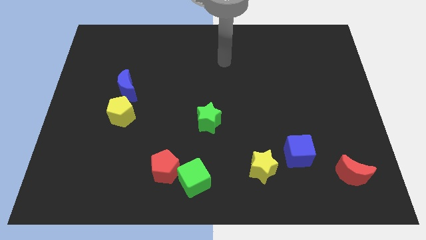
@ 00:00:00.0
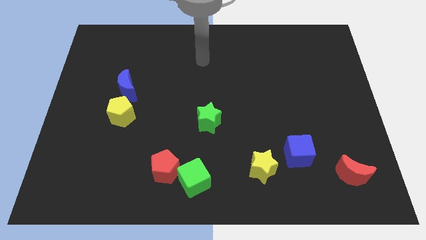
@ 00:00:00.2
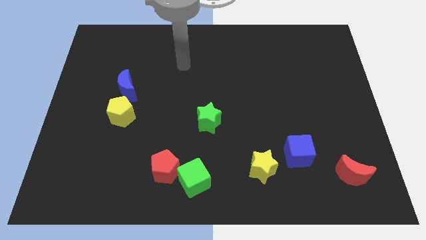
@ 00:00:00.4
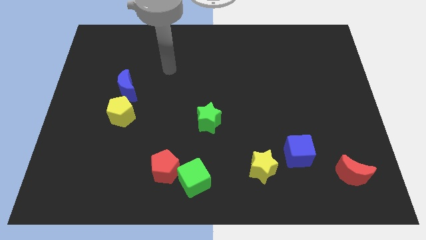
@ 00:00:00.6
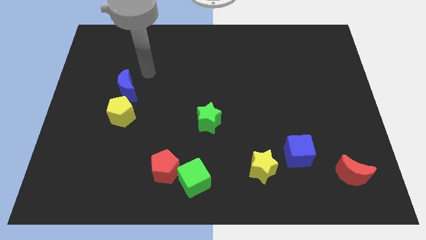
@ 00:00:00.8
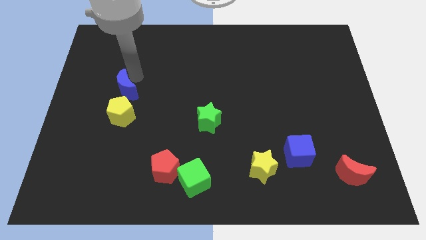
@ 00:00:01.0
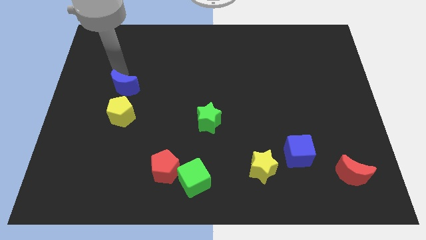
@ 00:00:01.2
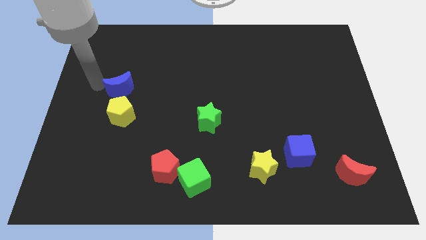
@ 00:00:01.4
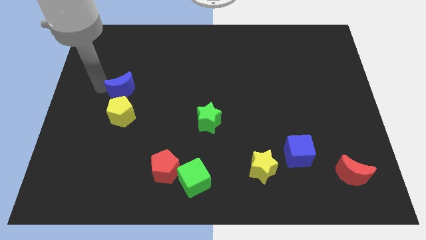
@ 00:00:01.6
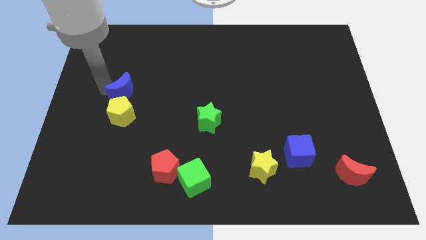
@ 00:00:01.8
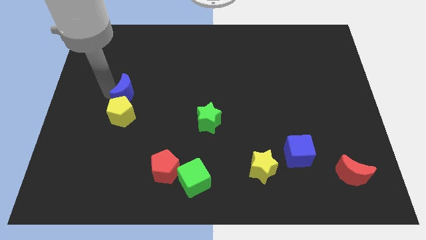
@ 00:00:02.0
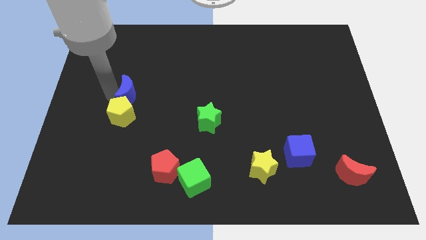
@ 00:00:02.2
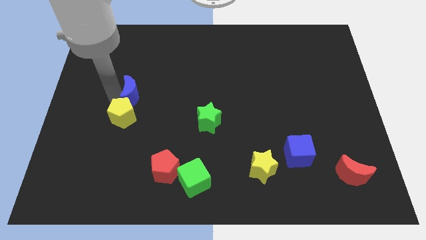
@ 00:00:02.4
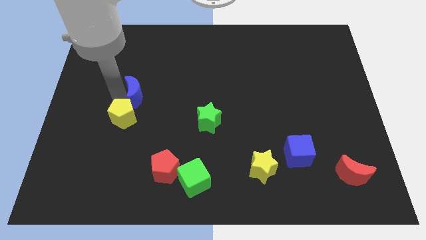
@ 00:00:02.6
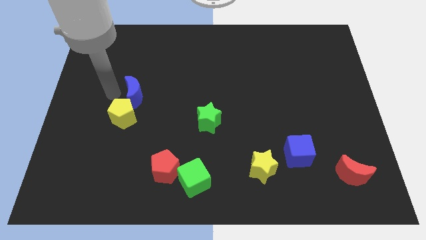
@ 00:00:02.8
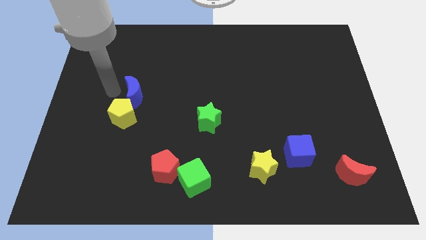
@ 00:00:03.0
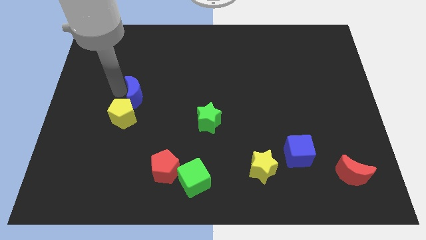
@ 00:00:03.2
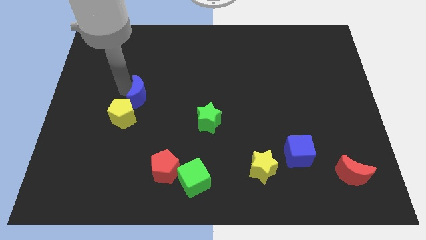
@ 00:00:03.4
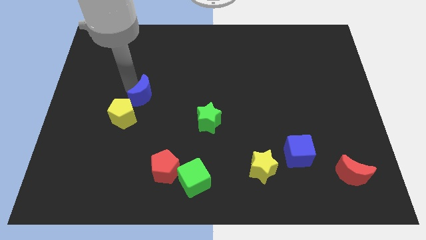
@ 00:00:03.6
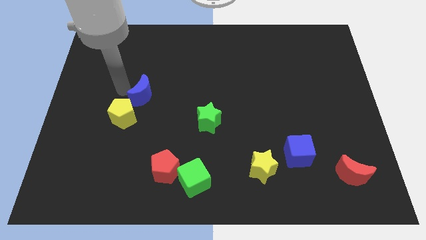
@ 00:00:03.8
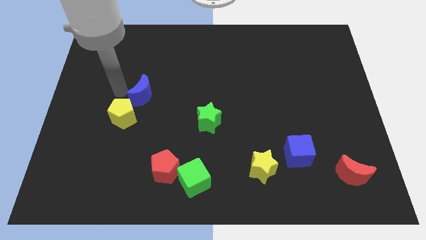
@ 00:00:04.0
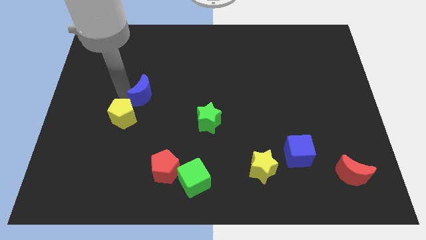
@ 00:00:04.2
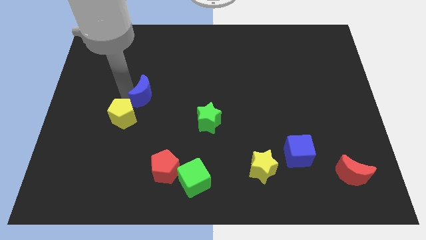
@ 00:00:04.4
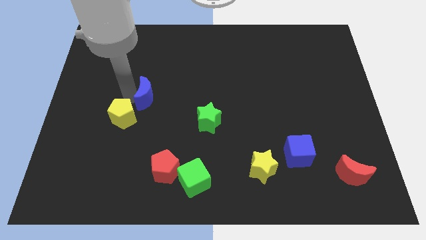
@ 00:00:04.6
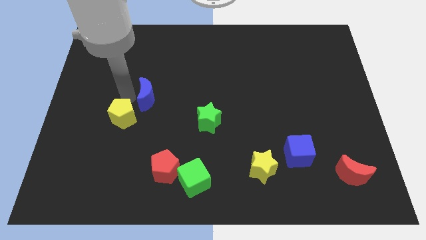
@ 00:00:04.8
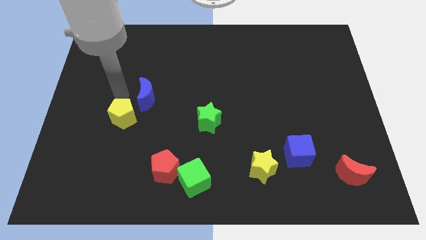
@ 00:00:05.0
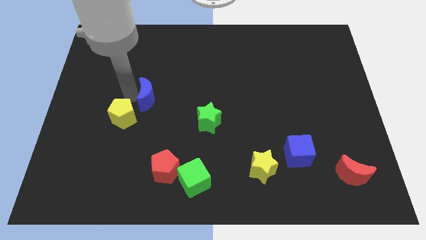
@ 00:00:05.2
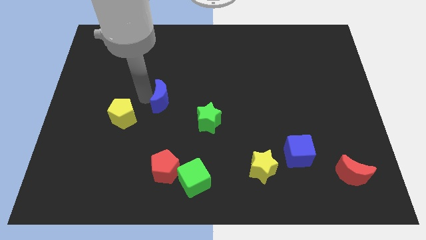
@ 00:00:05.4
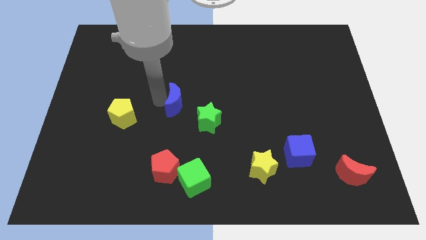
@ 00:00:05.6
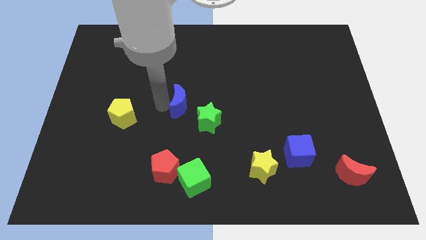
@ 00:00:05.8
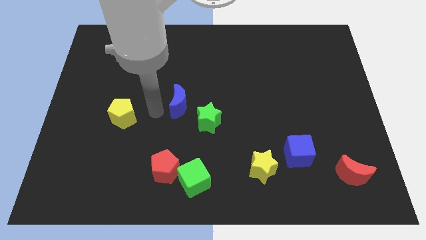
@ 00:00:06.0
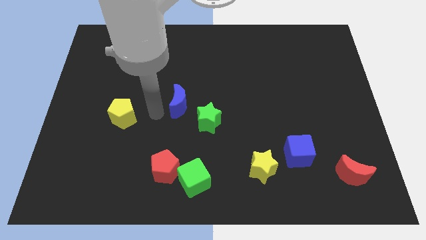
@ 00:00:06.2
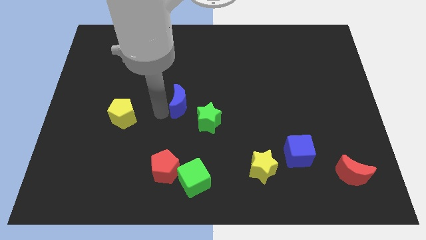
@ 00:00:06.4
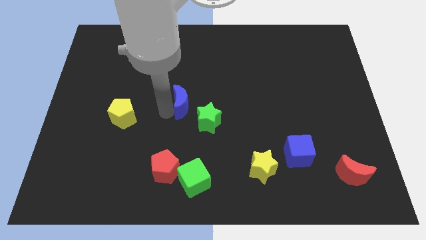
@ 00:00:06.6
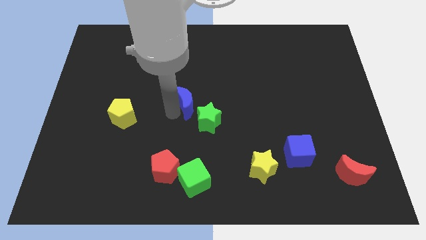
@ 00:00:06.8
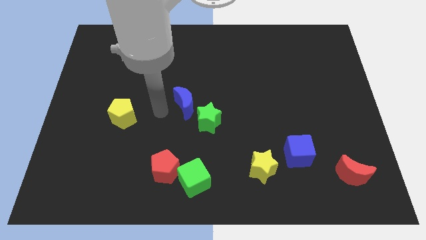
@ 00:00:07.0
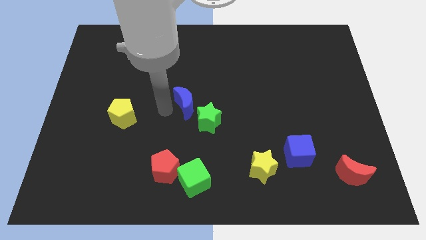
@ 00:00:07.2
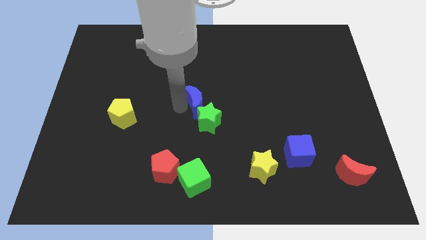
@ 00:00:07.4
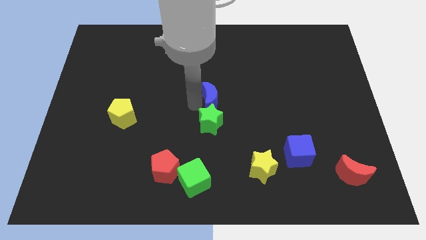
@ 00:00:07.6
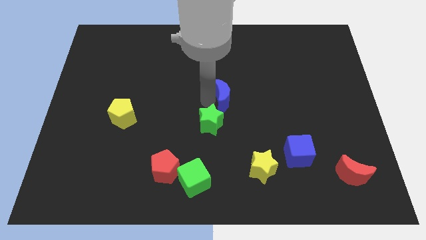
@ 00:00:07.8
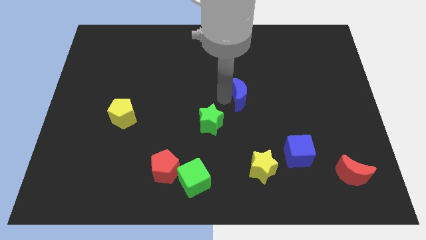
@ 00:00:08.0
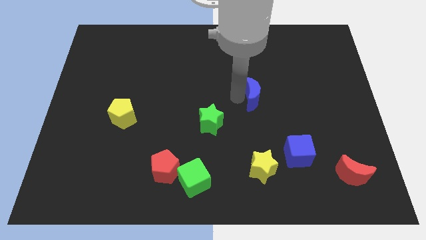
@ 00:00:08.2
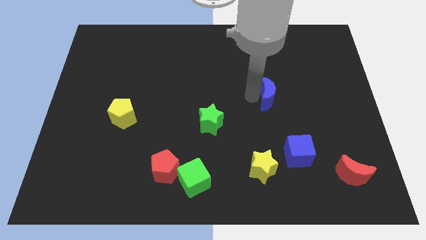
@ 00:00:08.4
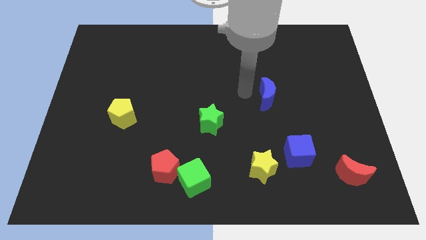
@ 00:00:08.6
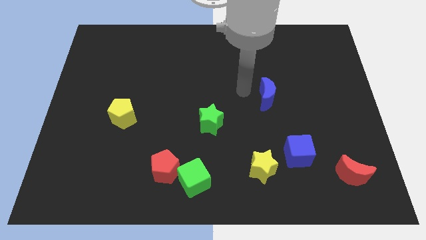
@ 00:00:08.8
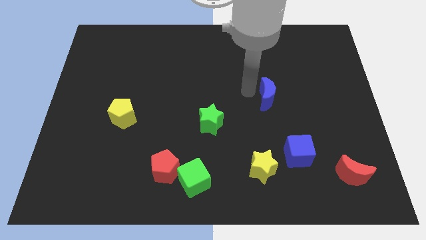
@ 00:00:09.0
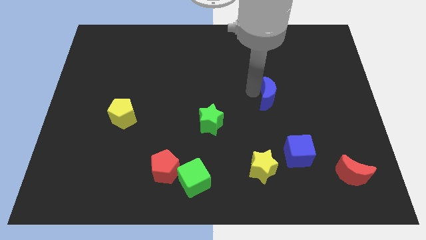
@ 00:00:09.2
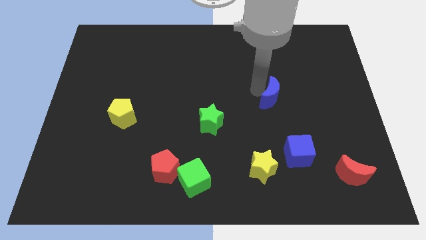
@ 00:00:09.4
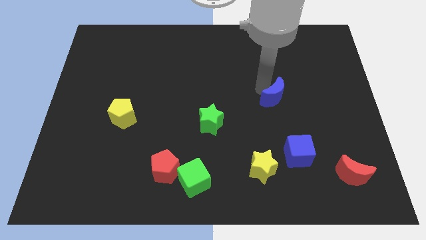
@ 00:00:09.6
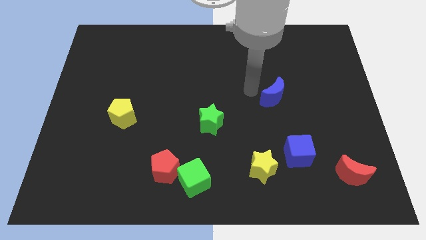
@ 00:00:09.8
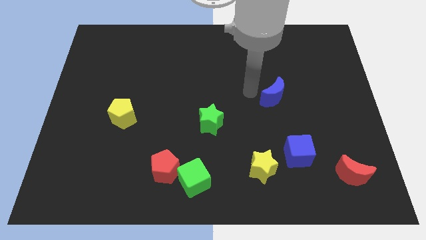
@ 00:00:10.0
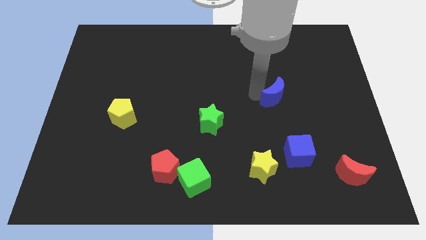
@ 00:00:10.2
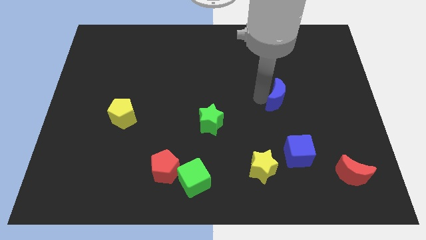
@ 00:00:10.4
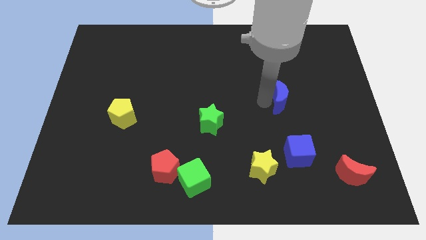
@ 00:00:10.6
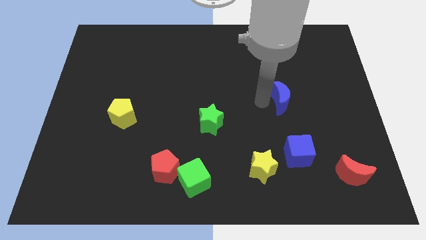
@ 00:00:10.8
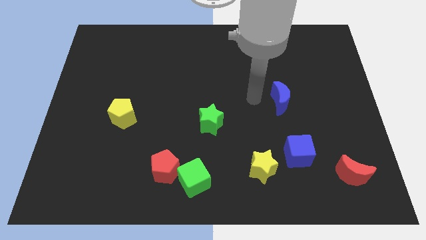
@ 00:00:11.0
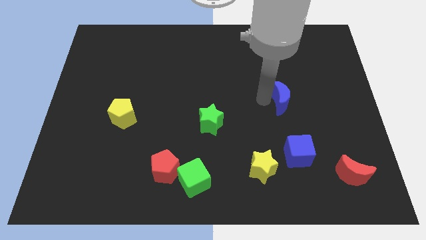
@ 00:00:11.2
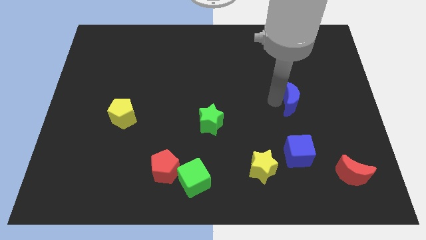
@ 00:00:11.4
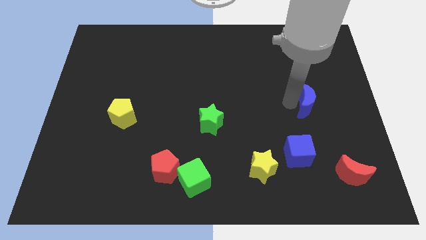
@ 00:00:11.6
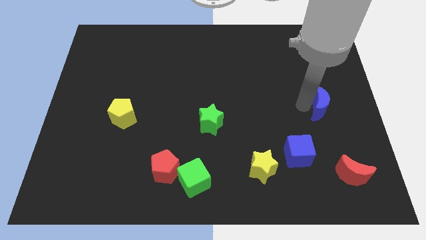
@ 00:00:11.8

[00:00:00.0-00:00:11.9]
put the blue moon to the center right

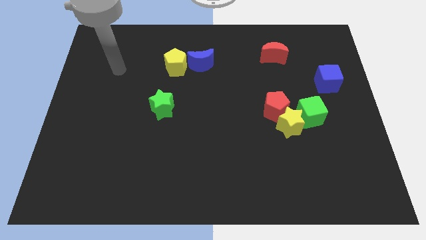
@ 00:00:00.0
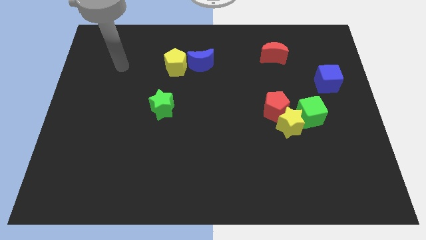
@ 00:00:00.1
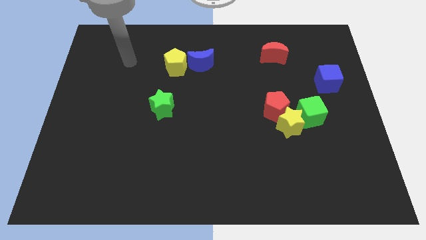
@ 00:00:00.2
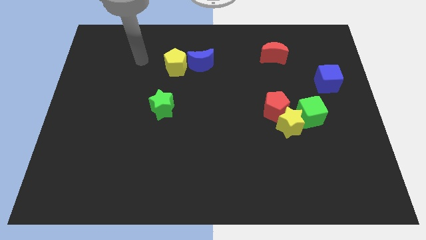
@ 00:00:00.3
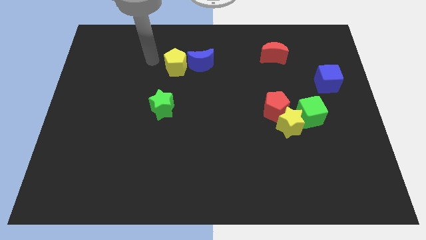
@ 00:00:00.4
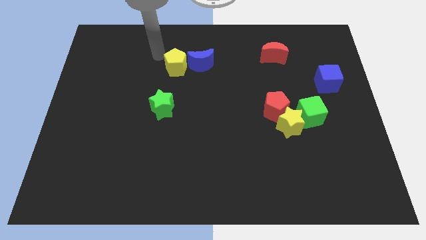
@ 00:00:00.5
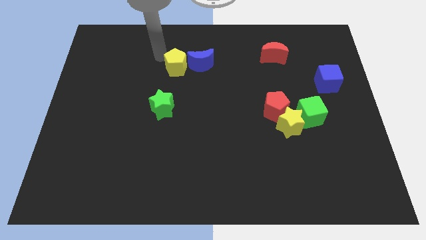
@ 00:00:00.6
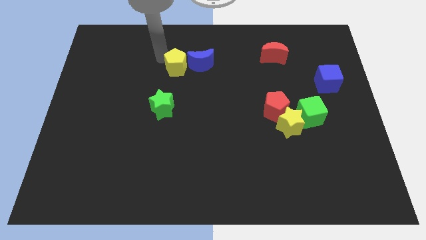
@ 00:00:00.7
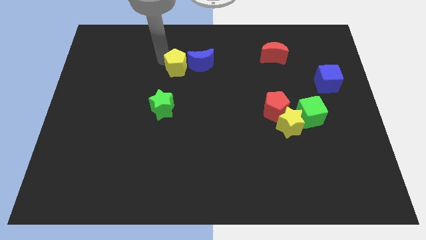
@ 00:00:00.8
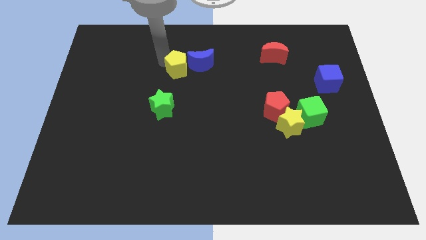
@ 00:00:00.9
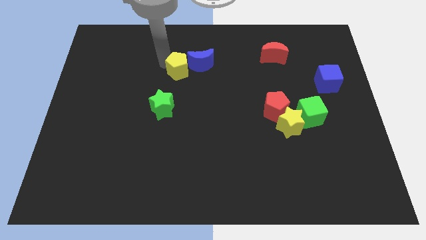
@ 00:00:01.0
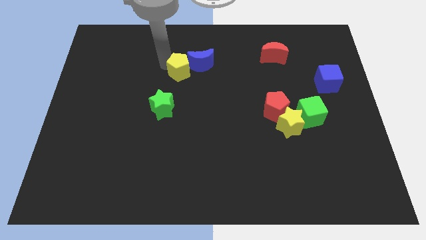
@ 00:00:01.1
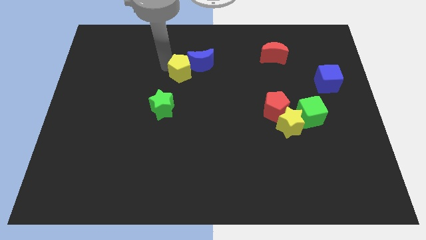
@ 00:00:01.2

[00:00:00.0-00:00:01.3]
put the yellow pentagon to the center
